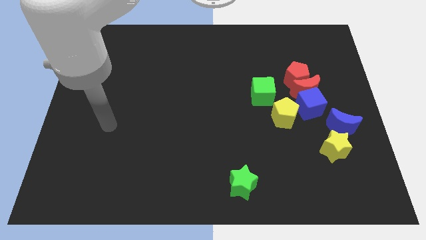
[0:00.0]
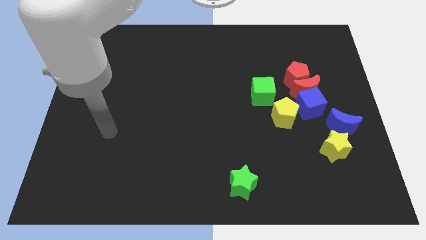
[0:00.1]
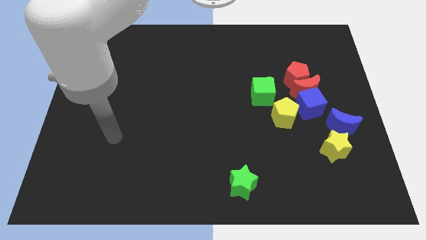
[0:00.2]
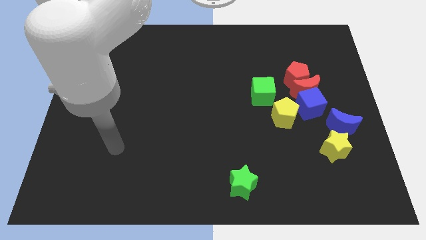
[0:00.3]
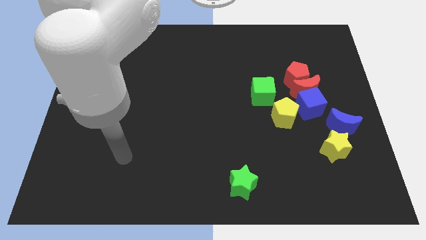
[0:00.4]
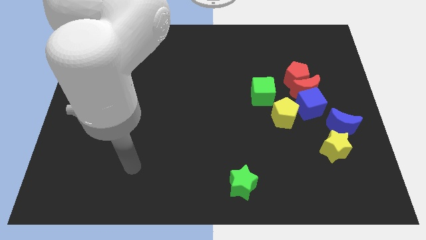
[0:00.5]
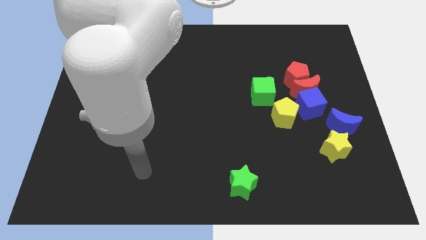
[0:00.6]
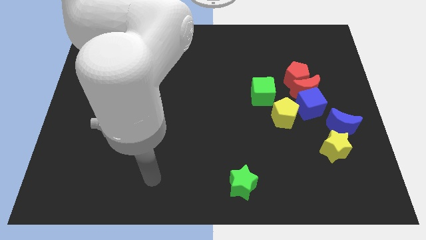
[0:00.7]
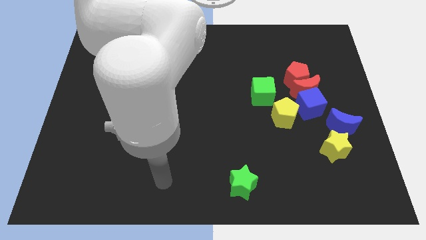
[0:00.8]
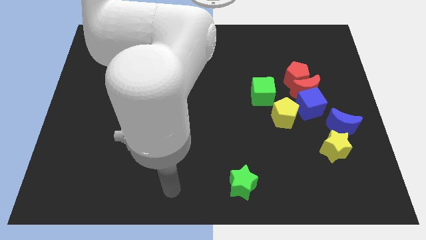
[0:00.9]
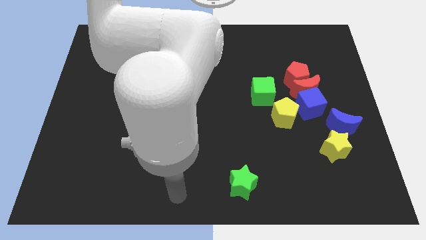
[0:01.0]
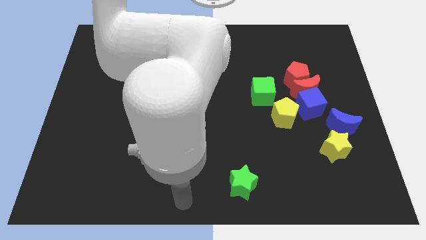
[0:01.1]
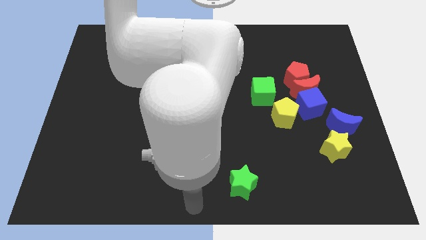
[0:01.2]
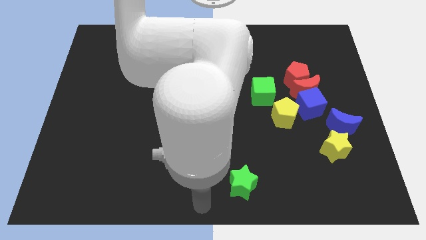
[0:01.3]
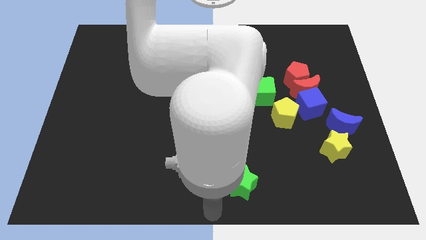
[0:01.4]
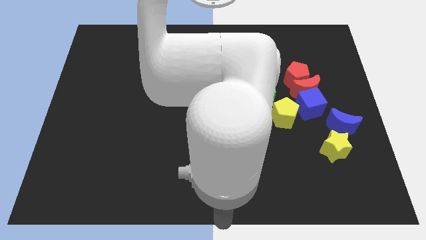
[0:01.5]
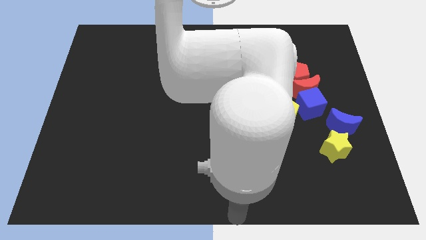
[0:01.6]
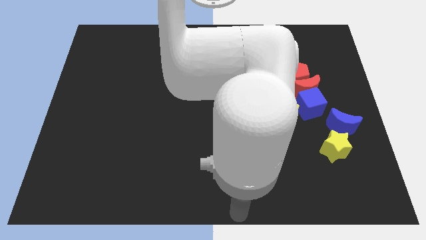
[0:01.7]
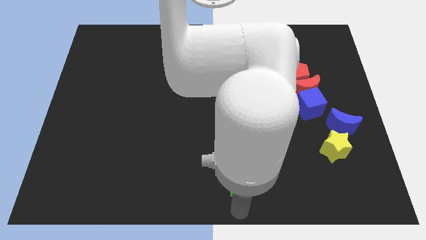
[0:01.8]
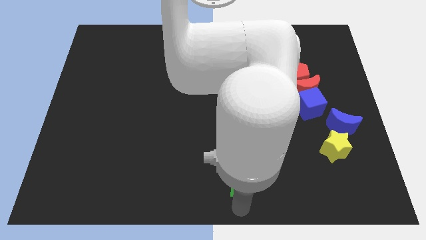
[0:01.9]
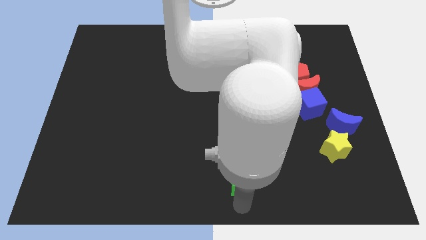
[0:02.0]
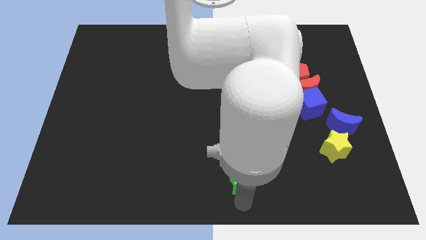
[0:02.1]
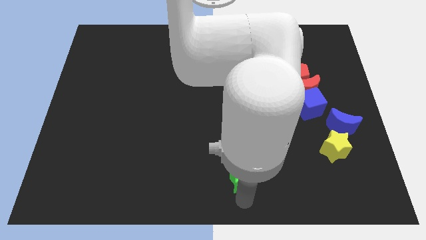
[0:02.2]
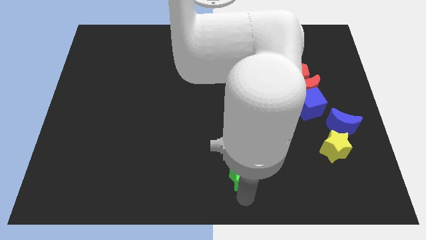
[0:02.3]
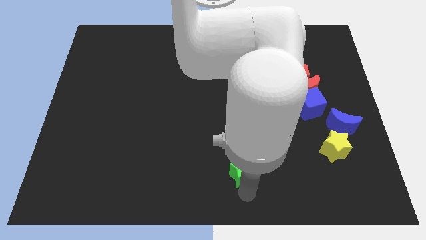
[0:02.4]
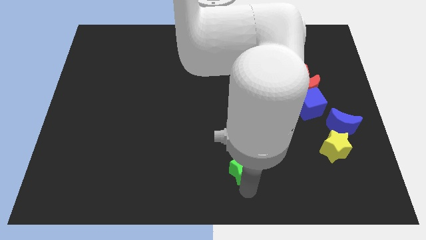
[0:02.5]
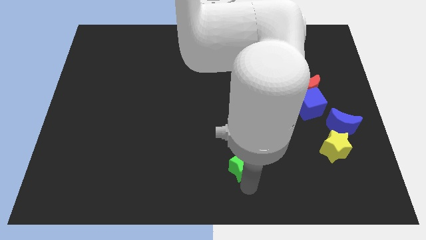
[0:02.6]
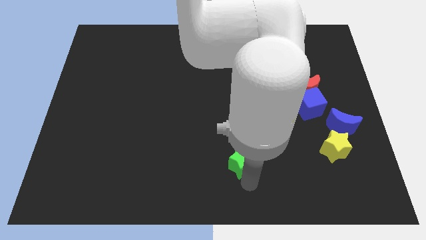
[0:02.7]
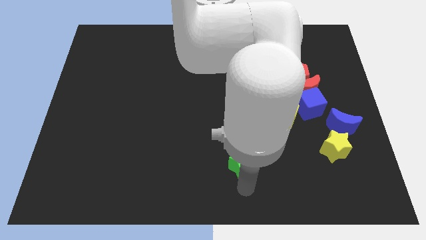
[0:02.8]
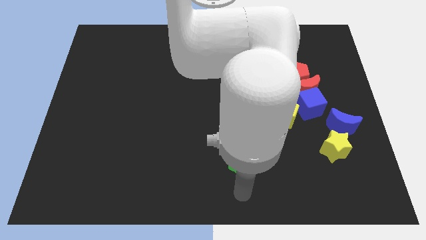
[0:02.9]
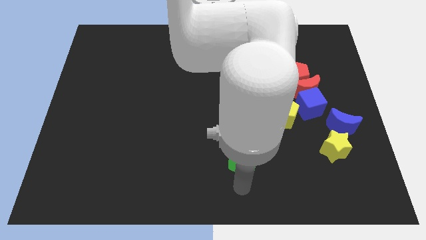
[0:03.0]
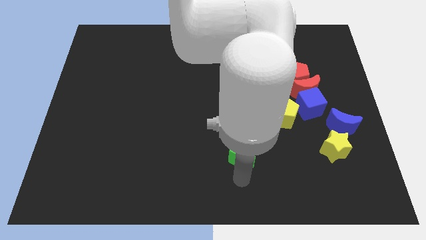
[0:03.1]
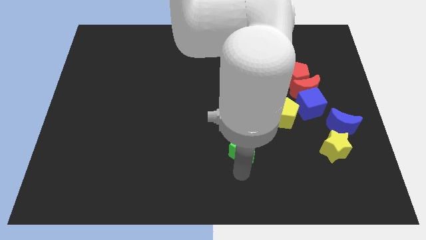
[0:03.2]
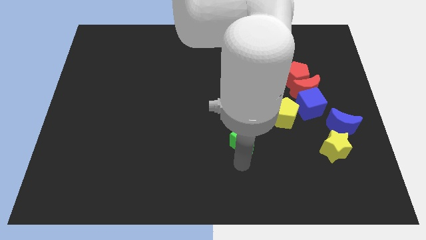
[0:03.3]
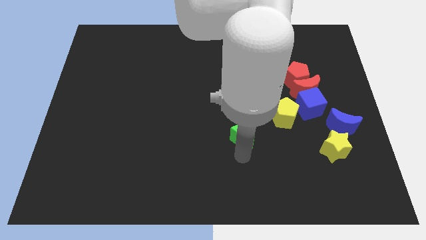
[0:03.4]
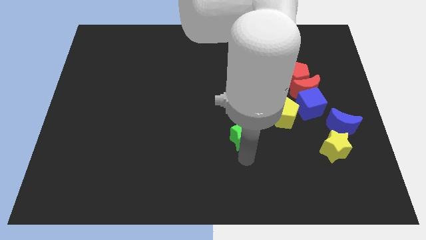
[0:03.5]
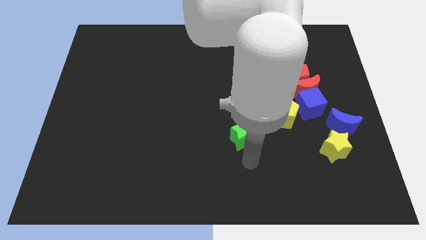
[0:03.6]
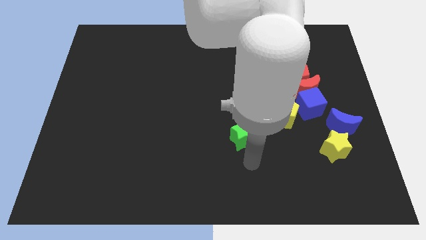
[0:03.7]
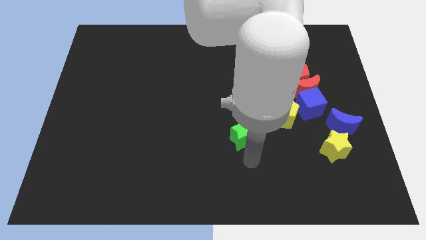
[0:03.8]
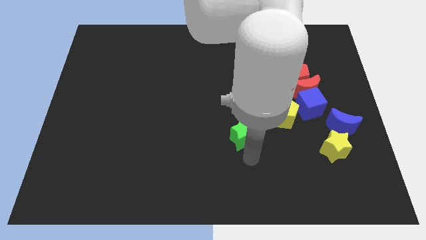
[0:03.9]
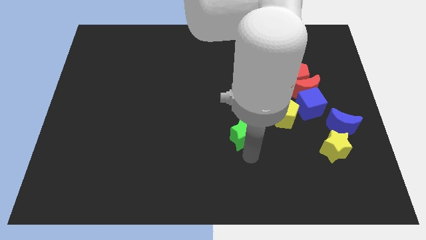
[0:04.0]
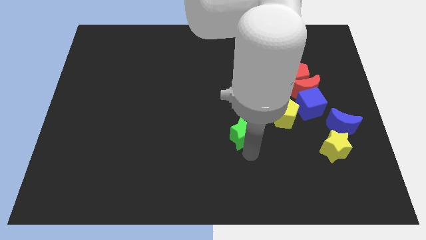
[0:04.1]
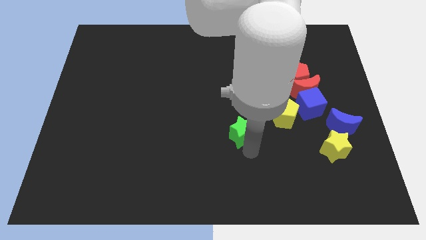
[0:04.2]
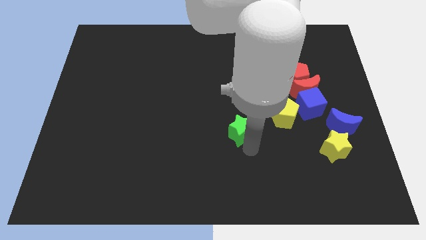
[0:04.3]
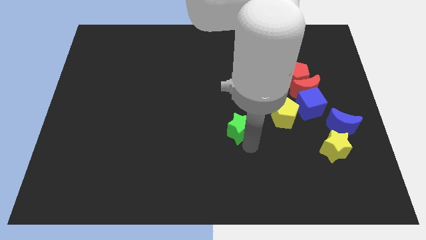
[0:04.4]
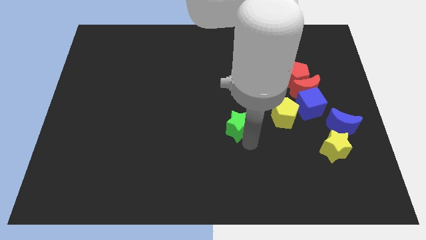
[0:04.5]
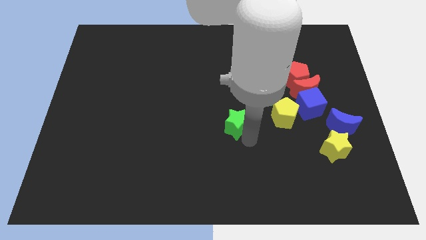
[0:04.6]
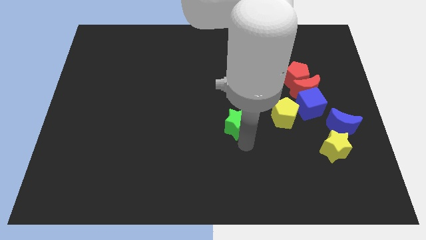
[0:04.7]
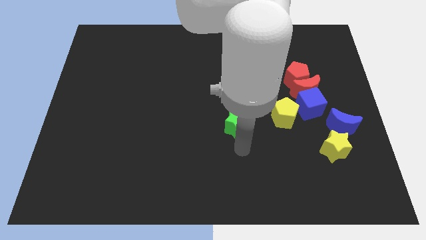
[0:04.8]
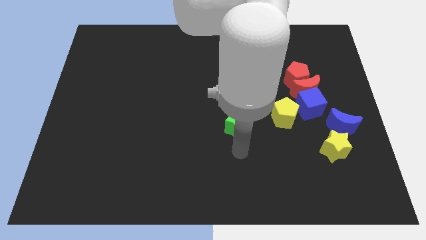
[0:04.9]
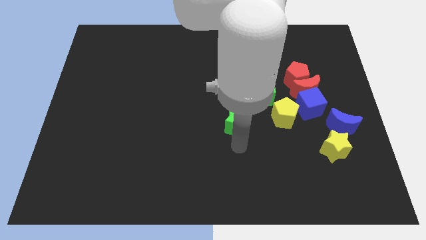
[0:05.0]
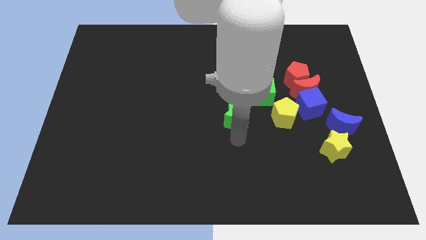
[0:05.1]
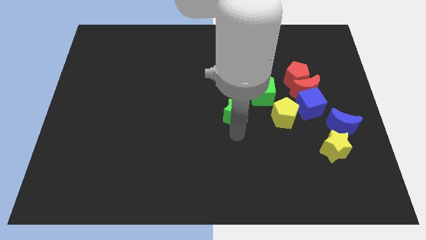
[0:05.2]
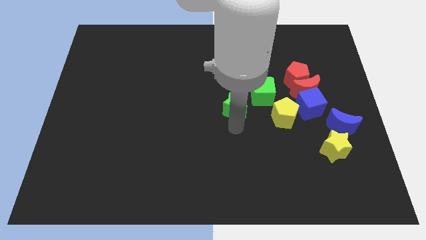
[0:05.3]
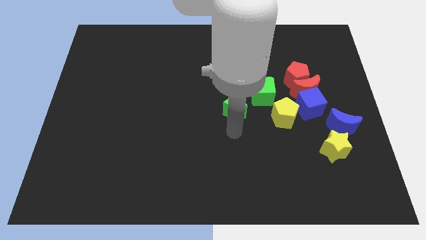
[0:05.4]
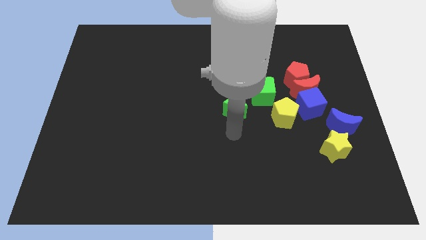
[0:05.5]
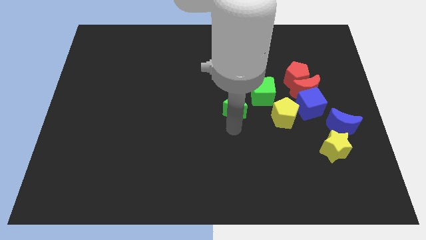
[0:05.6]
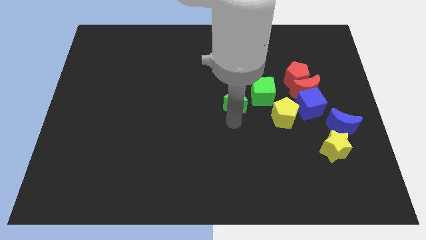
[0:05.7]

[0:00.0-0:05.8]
push the green star upwards

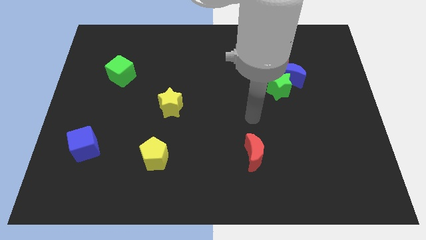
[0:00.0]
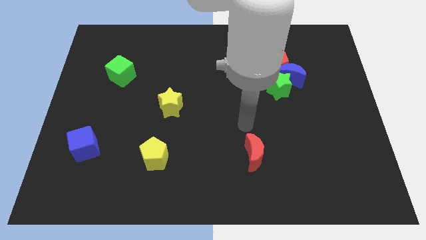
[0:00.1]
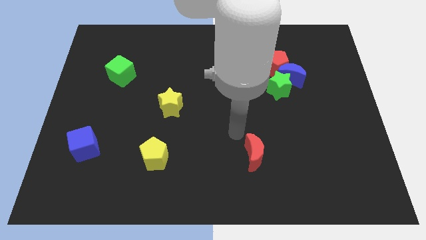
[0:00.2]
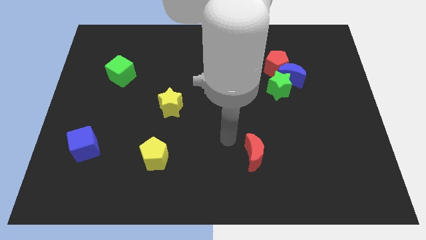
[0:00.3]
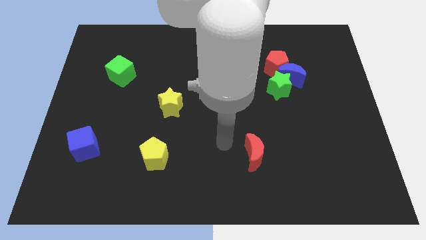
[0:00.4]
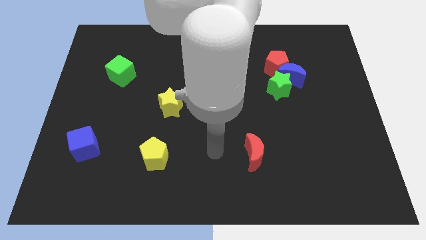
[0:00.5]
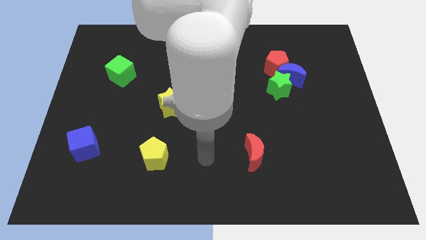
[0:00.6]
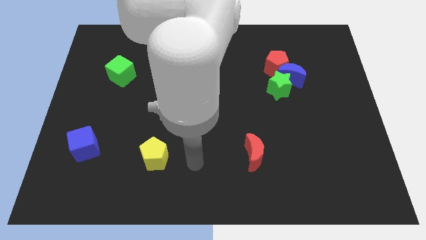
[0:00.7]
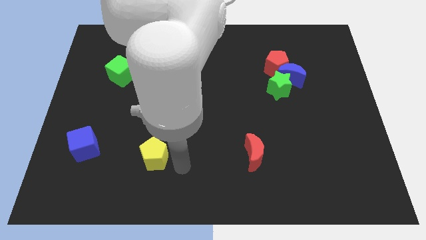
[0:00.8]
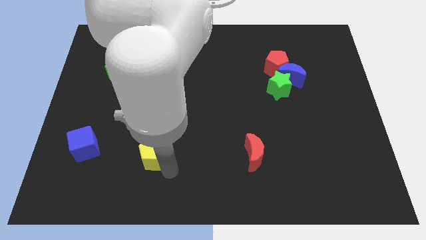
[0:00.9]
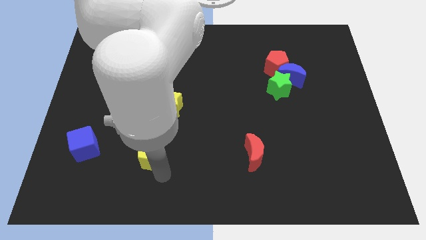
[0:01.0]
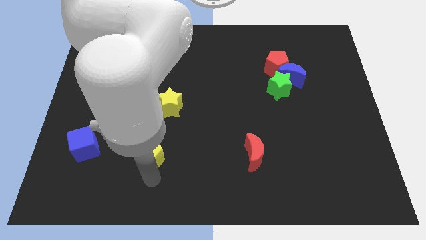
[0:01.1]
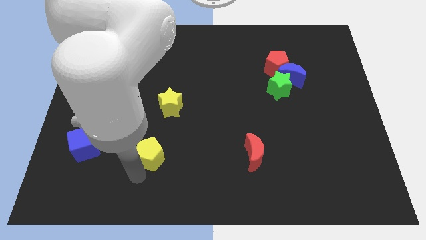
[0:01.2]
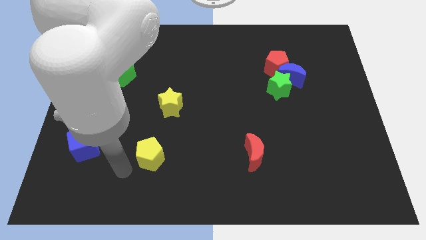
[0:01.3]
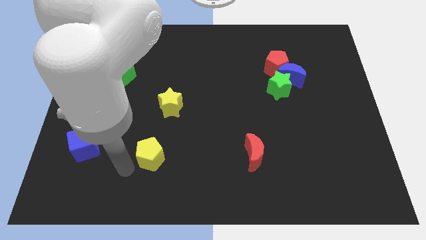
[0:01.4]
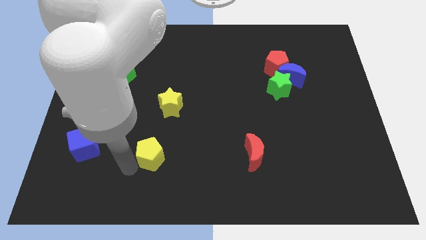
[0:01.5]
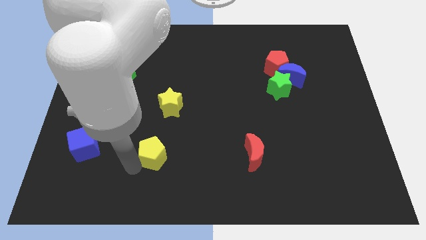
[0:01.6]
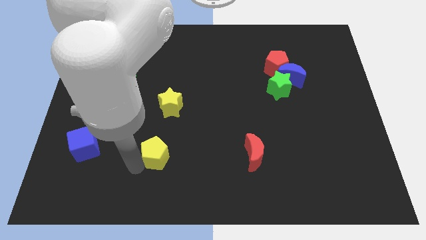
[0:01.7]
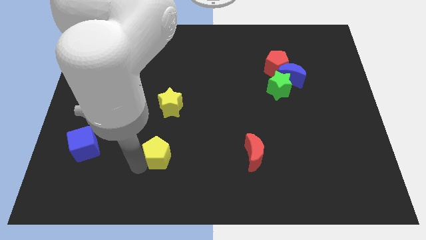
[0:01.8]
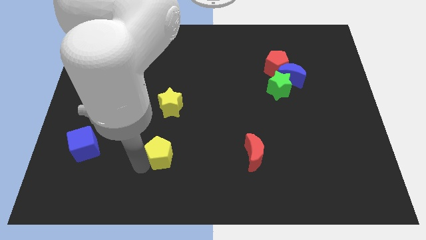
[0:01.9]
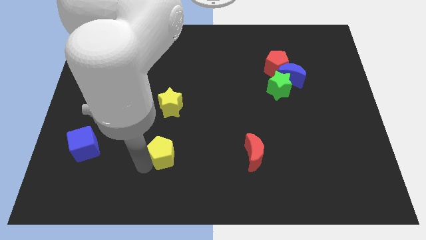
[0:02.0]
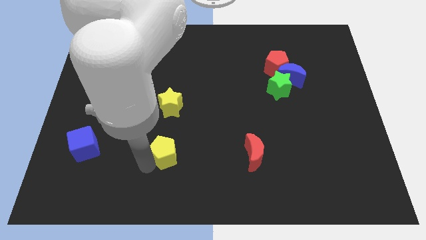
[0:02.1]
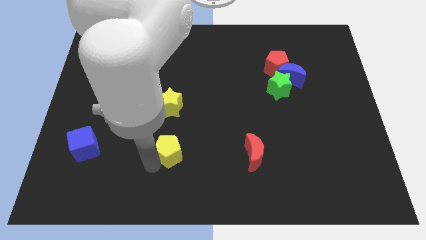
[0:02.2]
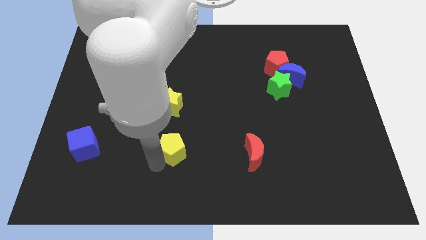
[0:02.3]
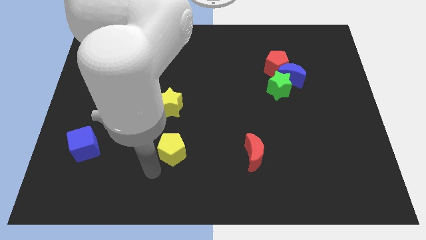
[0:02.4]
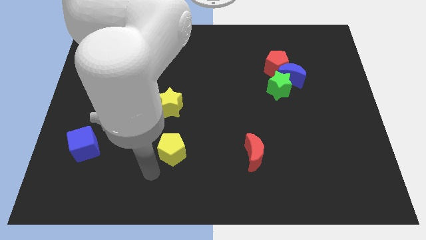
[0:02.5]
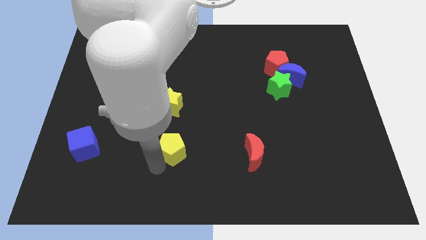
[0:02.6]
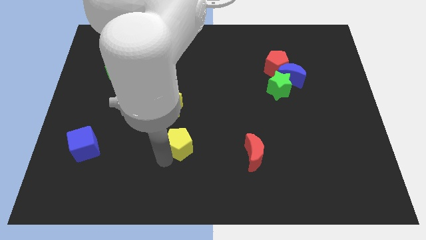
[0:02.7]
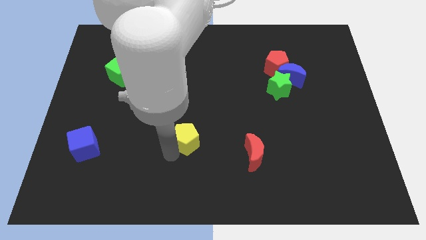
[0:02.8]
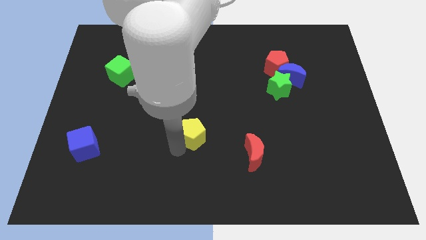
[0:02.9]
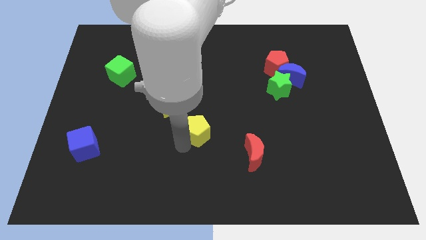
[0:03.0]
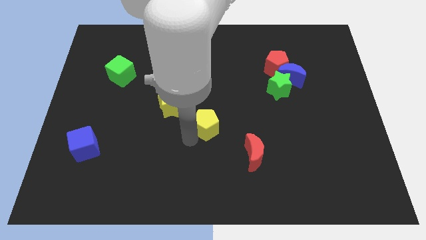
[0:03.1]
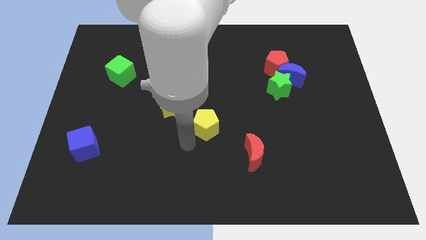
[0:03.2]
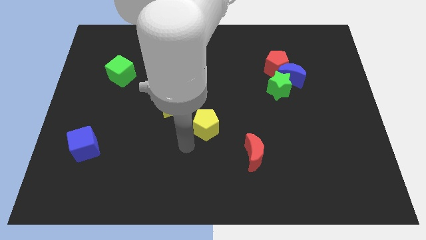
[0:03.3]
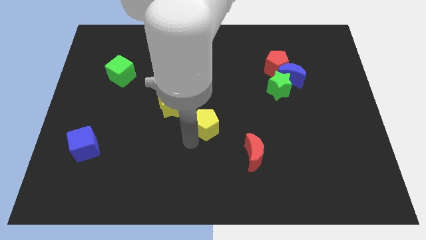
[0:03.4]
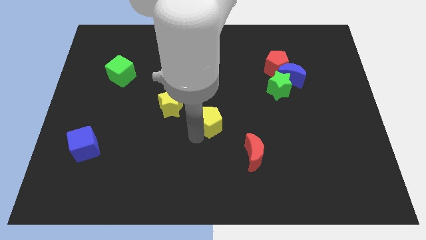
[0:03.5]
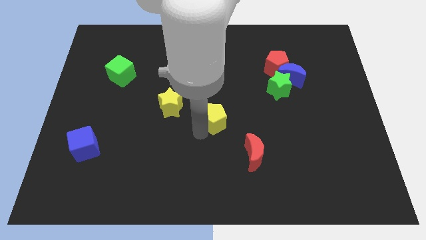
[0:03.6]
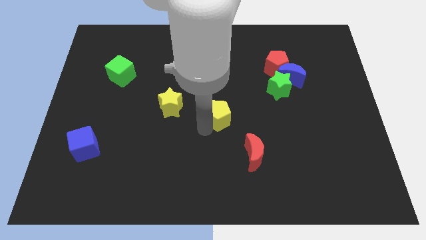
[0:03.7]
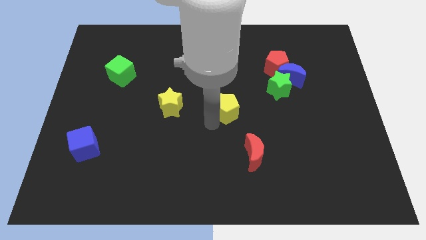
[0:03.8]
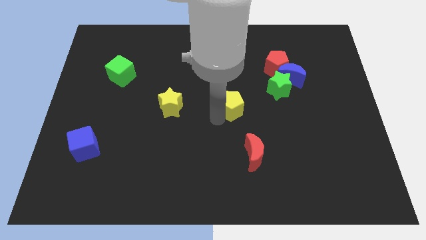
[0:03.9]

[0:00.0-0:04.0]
push the yellow pentagon up and to the right
